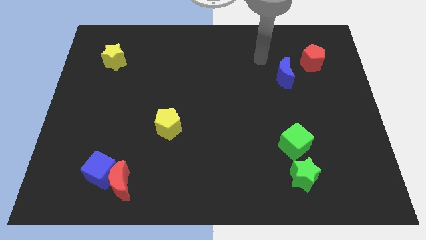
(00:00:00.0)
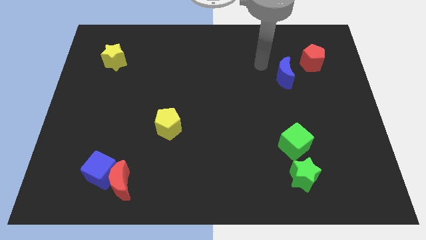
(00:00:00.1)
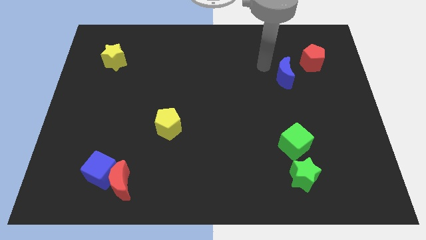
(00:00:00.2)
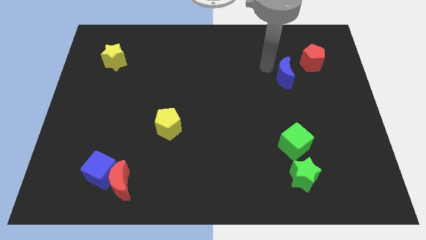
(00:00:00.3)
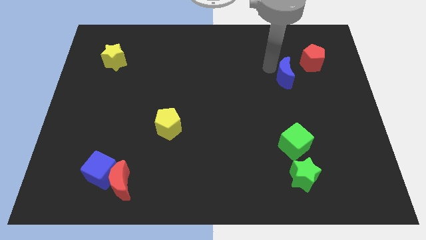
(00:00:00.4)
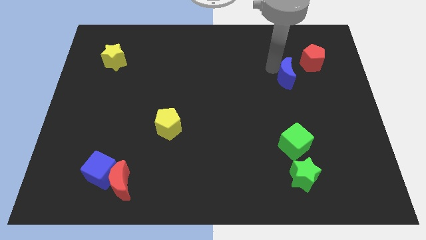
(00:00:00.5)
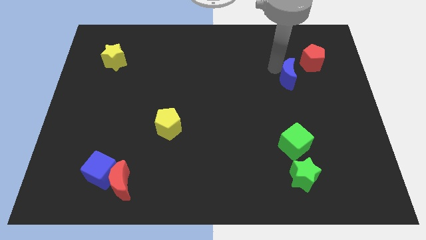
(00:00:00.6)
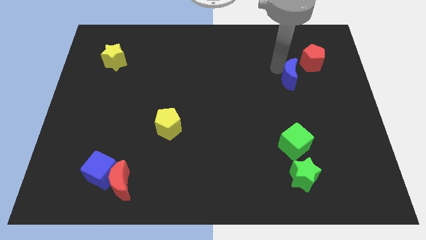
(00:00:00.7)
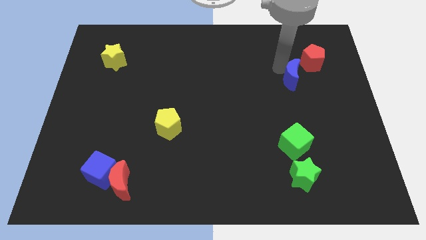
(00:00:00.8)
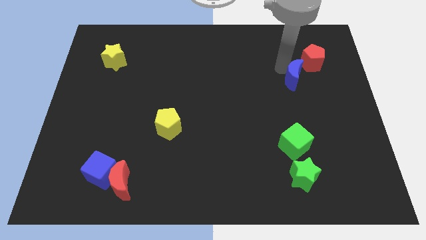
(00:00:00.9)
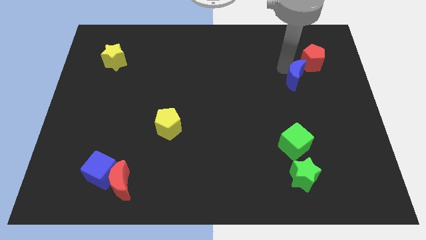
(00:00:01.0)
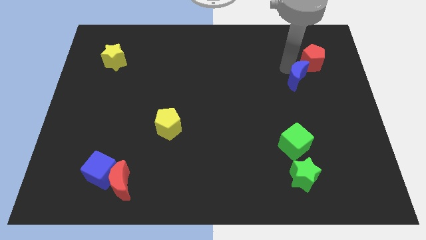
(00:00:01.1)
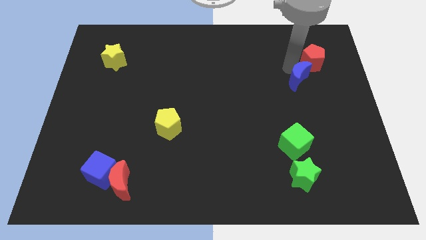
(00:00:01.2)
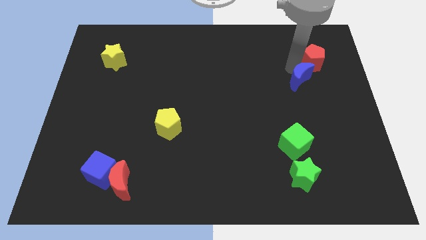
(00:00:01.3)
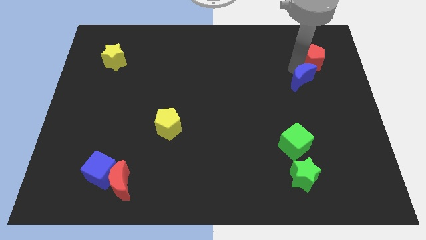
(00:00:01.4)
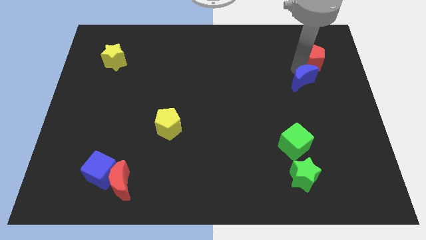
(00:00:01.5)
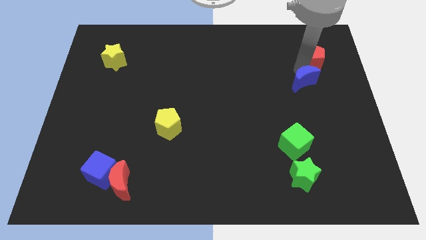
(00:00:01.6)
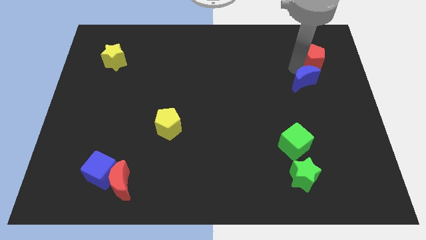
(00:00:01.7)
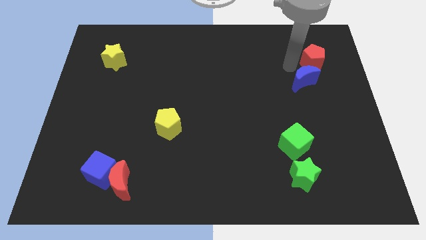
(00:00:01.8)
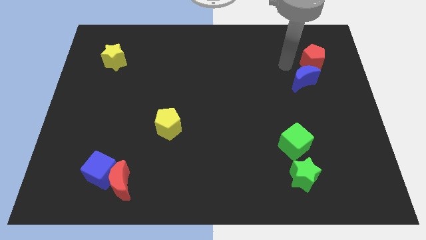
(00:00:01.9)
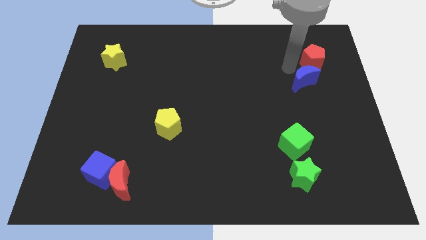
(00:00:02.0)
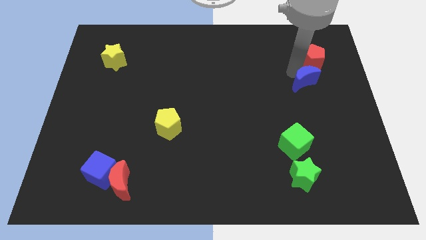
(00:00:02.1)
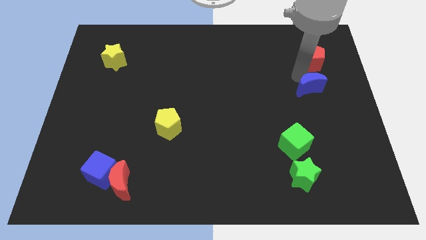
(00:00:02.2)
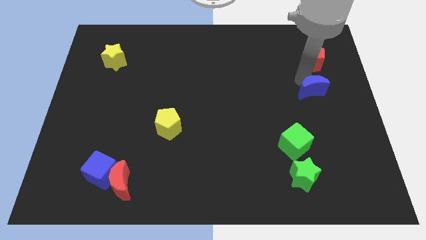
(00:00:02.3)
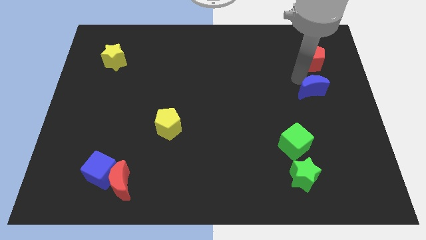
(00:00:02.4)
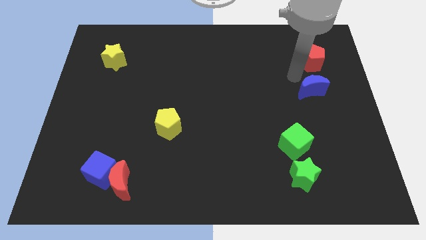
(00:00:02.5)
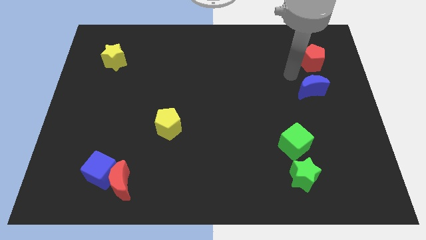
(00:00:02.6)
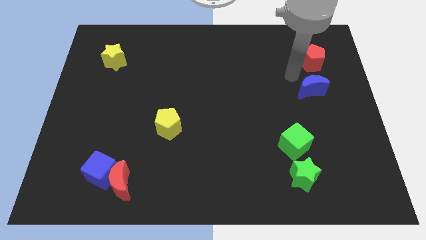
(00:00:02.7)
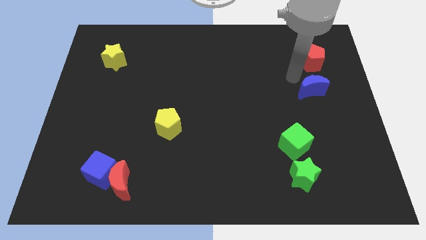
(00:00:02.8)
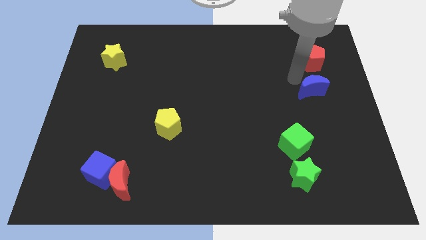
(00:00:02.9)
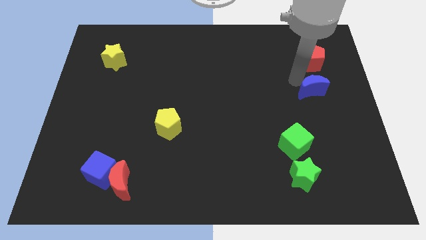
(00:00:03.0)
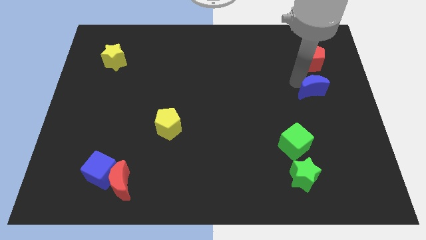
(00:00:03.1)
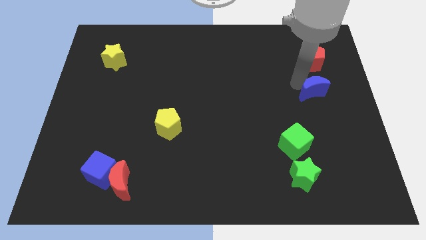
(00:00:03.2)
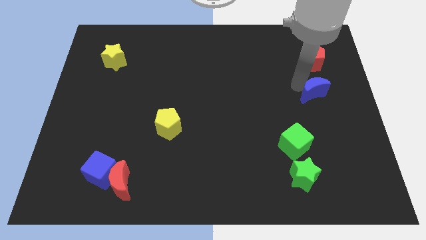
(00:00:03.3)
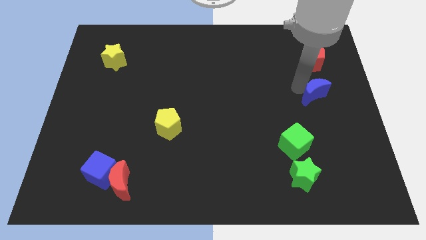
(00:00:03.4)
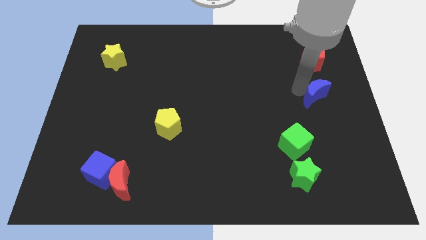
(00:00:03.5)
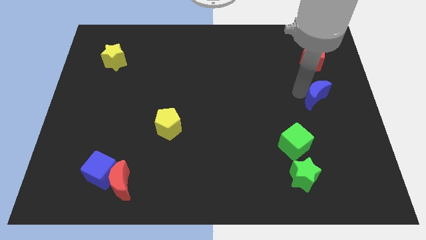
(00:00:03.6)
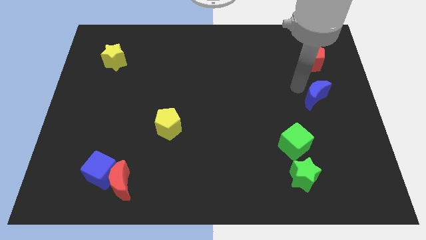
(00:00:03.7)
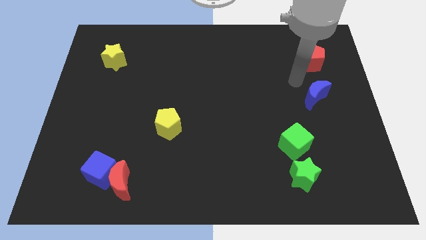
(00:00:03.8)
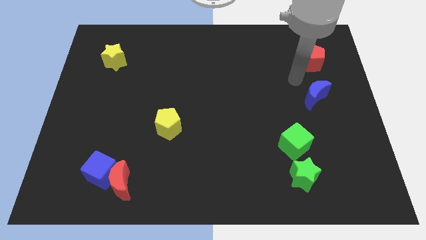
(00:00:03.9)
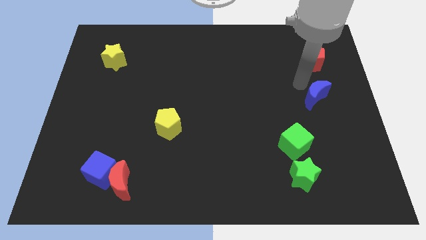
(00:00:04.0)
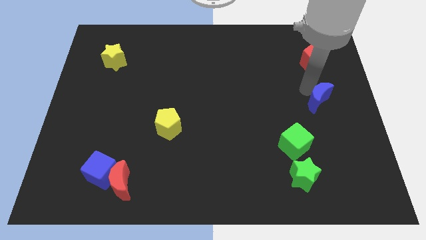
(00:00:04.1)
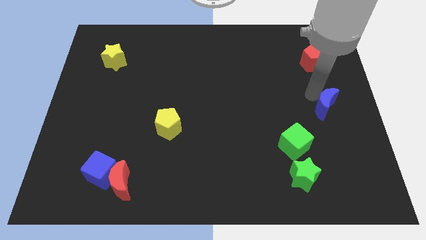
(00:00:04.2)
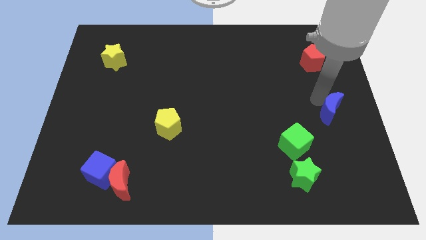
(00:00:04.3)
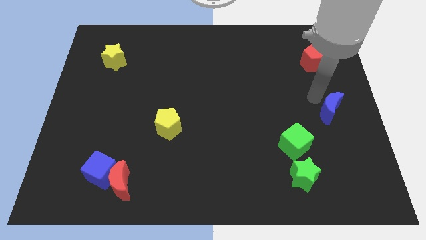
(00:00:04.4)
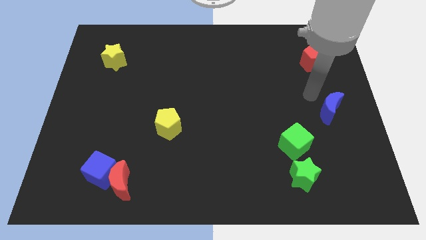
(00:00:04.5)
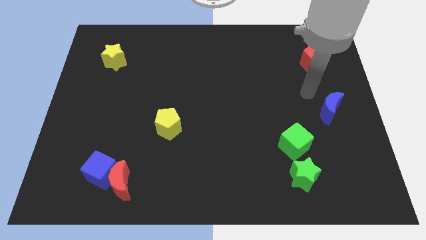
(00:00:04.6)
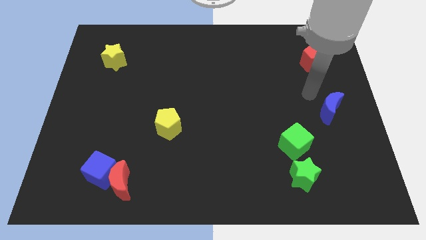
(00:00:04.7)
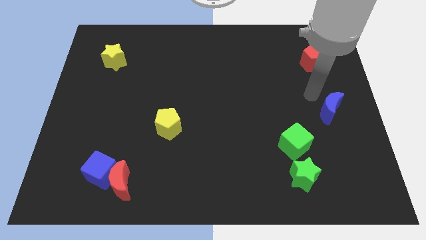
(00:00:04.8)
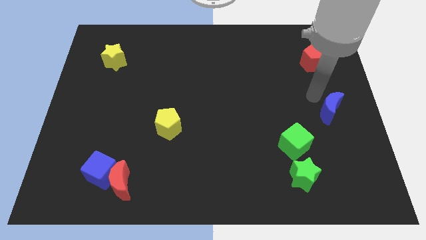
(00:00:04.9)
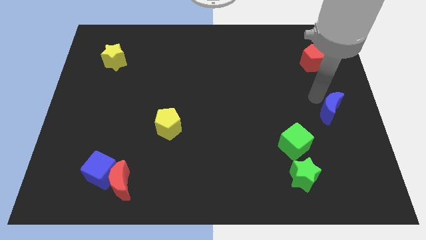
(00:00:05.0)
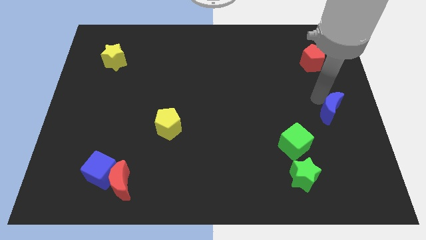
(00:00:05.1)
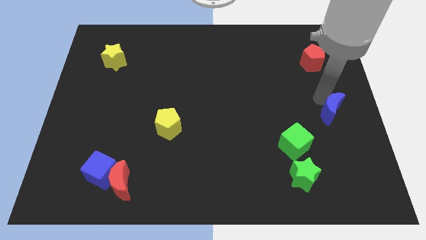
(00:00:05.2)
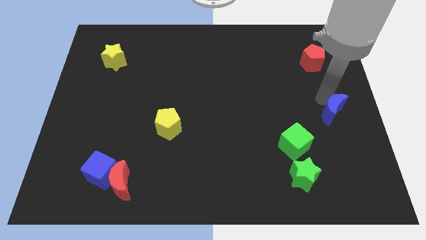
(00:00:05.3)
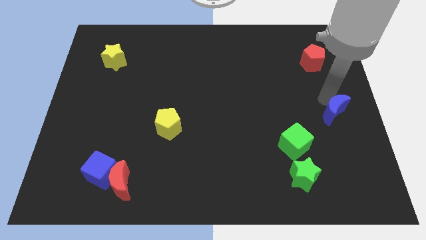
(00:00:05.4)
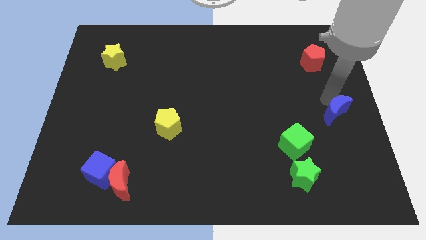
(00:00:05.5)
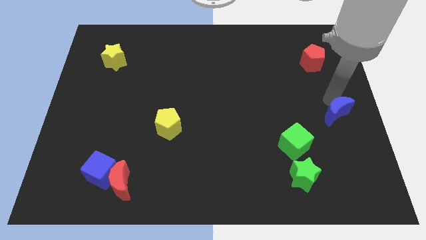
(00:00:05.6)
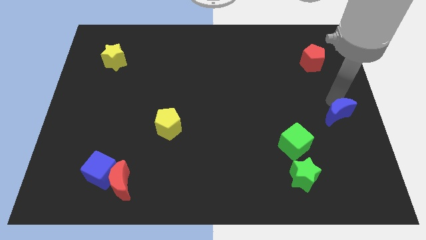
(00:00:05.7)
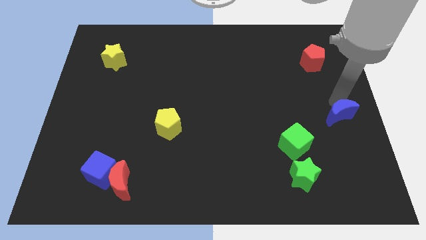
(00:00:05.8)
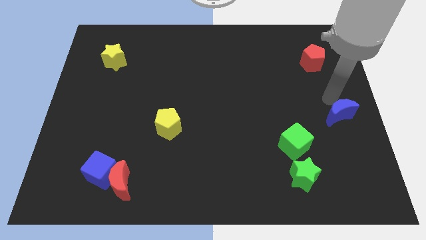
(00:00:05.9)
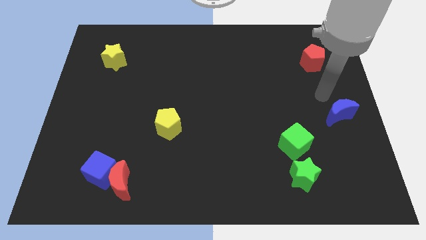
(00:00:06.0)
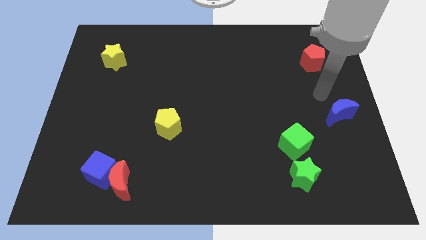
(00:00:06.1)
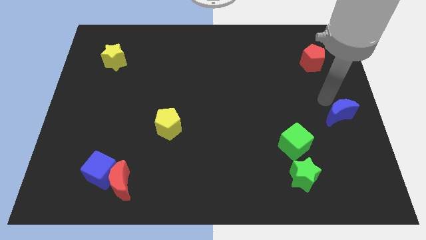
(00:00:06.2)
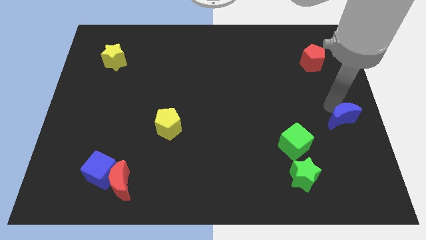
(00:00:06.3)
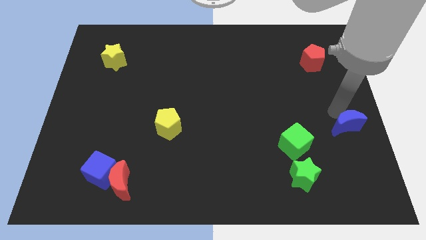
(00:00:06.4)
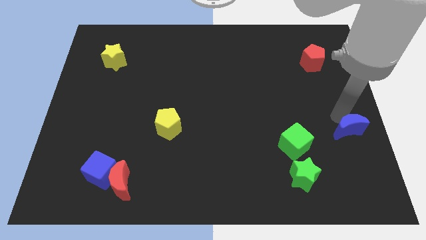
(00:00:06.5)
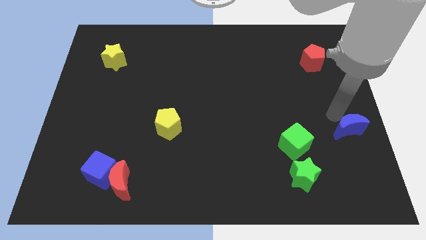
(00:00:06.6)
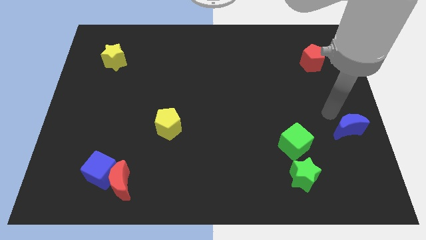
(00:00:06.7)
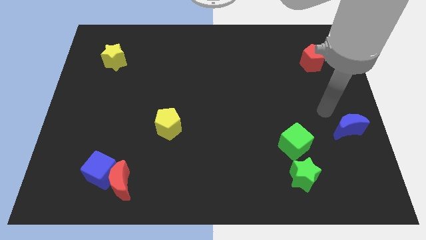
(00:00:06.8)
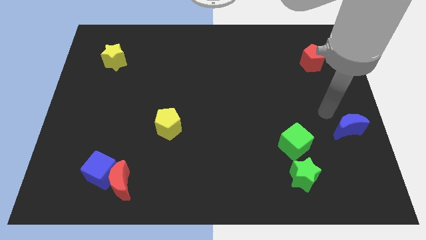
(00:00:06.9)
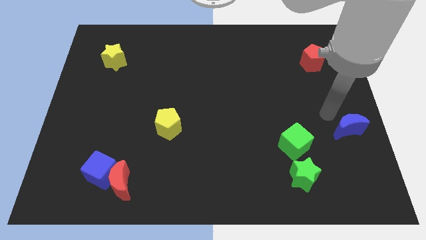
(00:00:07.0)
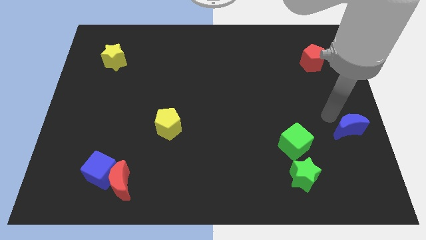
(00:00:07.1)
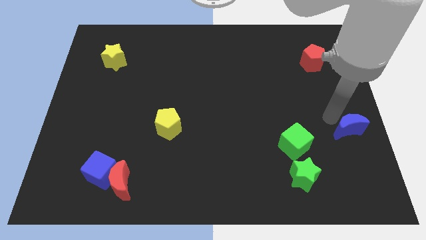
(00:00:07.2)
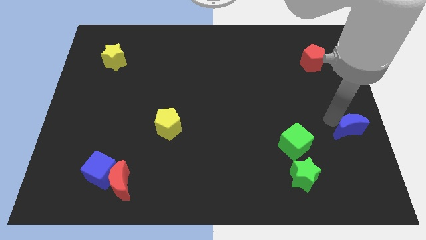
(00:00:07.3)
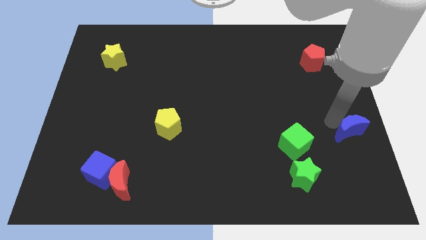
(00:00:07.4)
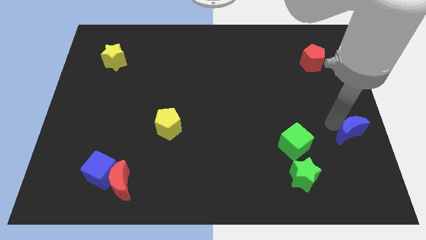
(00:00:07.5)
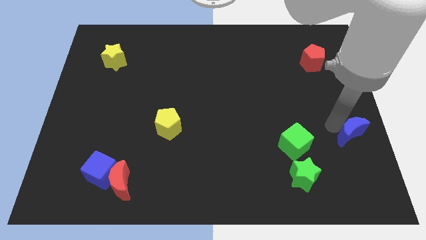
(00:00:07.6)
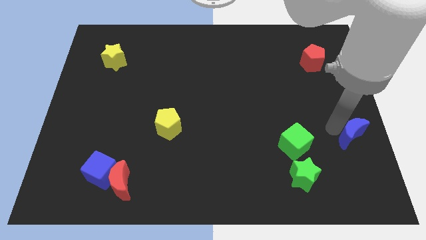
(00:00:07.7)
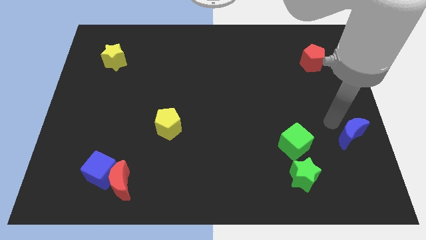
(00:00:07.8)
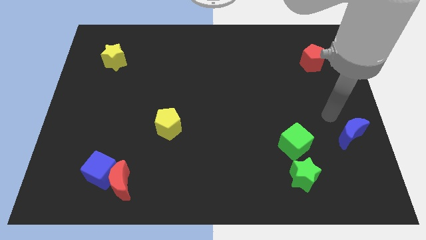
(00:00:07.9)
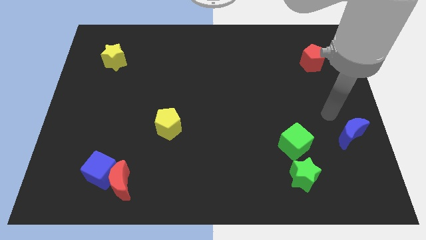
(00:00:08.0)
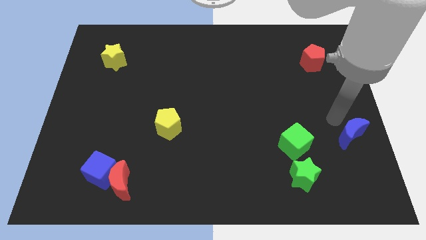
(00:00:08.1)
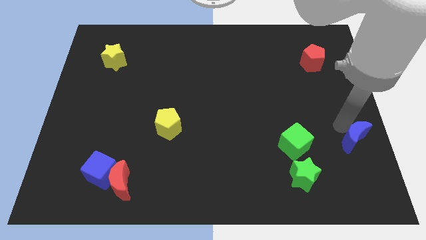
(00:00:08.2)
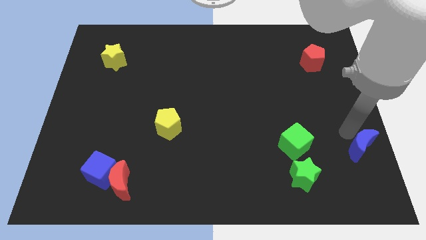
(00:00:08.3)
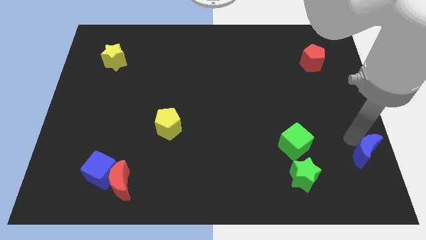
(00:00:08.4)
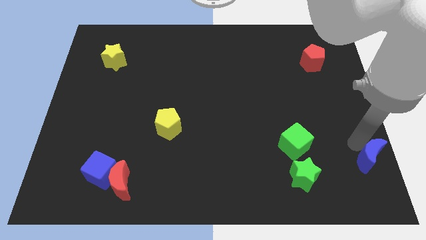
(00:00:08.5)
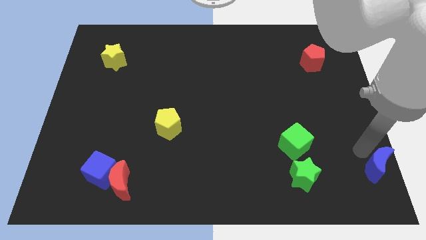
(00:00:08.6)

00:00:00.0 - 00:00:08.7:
slide the blue moon to the bottom right
